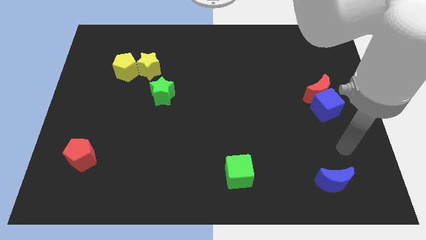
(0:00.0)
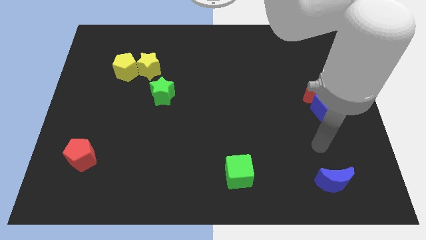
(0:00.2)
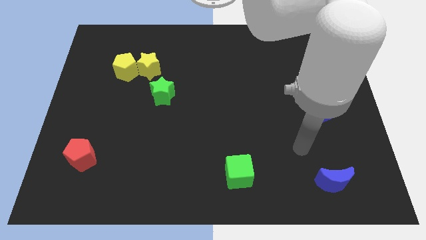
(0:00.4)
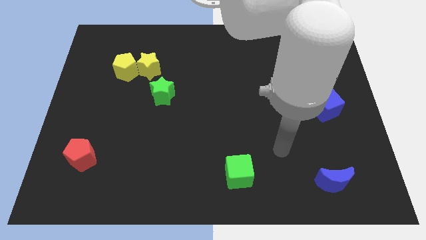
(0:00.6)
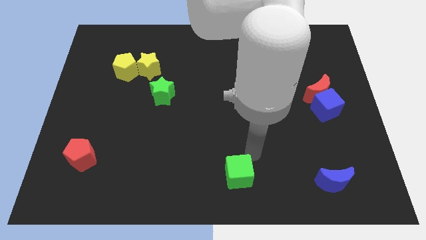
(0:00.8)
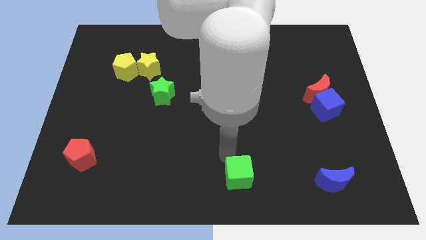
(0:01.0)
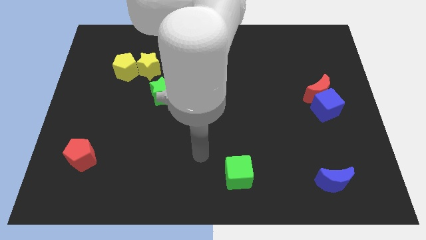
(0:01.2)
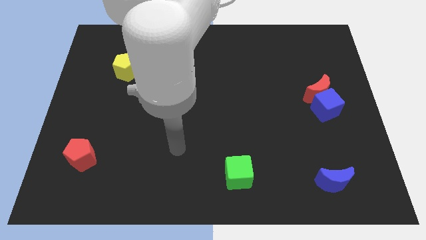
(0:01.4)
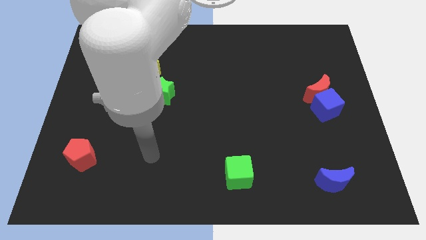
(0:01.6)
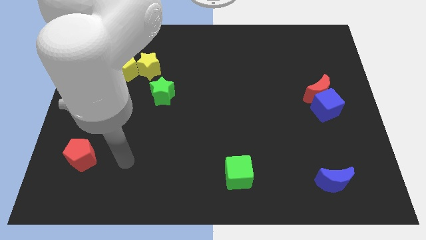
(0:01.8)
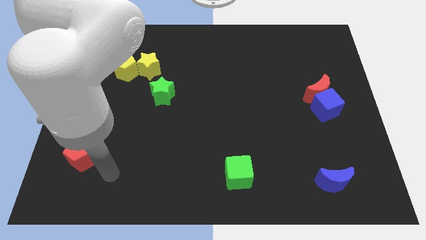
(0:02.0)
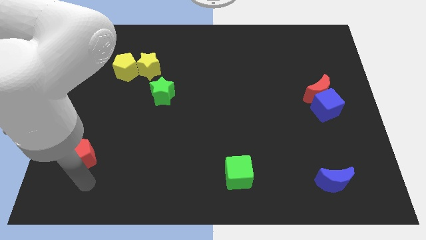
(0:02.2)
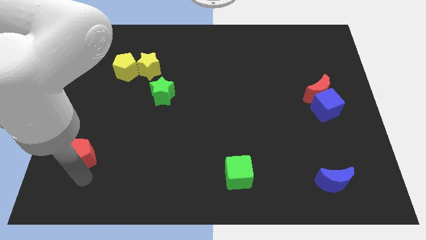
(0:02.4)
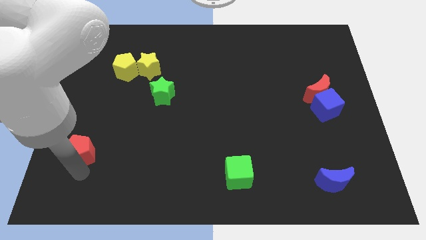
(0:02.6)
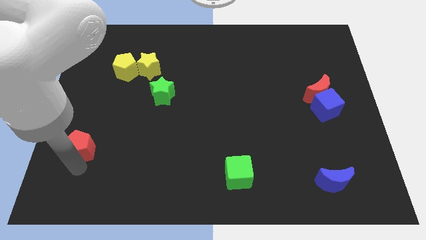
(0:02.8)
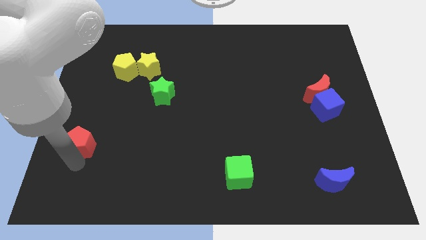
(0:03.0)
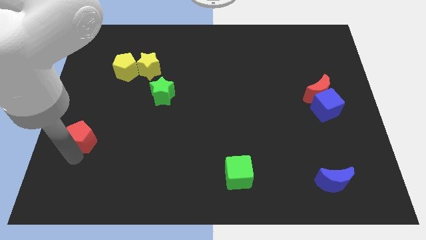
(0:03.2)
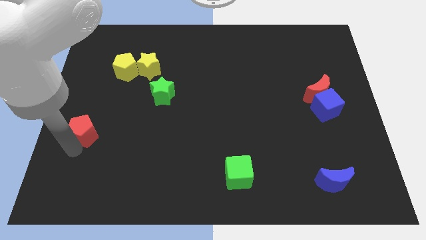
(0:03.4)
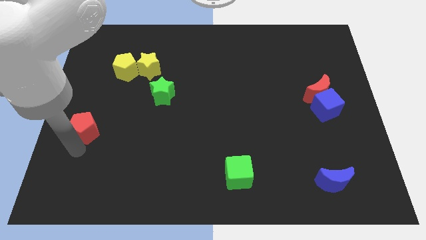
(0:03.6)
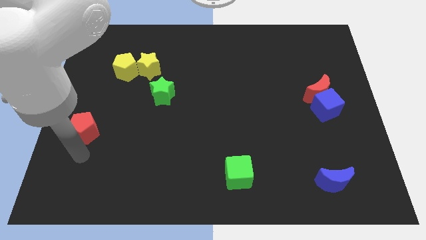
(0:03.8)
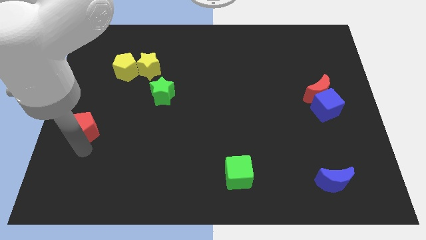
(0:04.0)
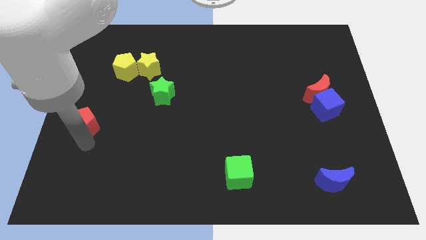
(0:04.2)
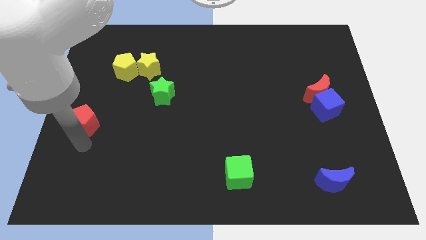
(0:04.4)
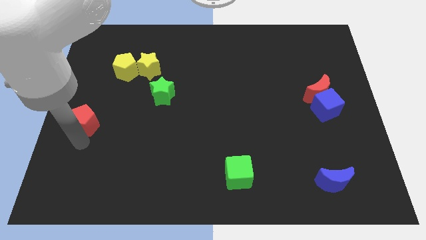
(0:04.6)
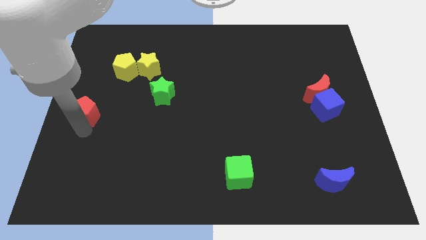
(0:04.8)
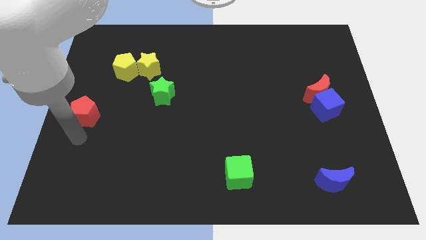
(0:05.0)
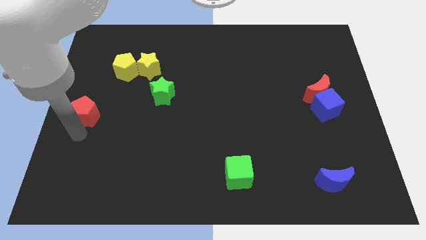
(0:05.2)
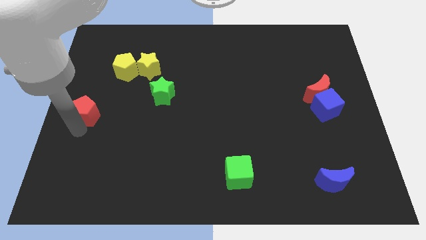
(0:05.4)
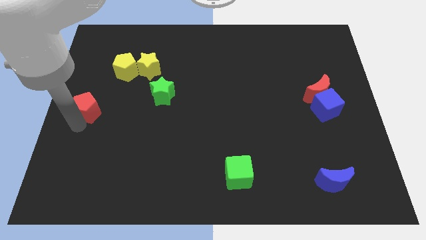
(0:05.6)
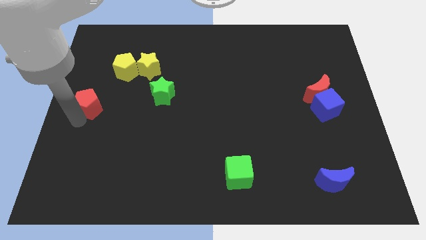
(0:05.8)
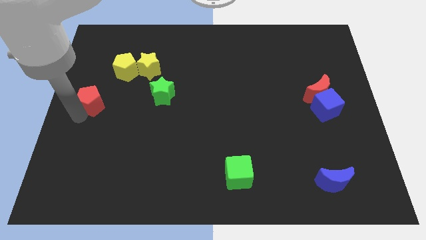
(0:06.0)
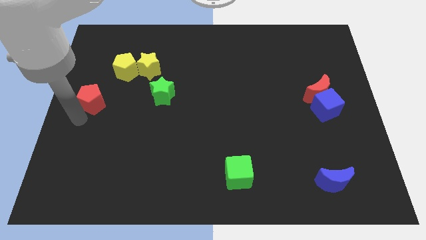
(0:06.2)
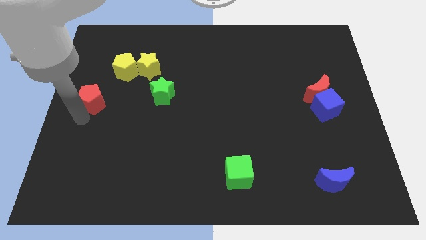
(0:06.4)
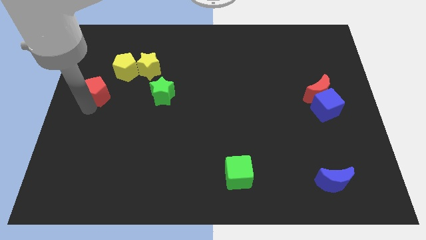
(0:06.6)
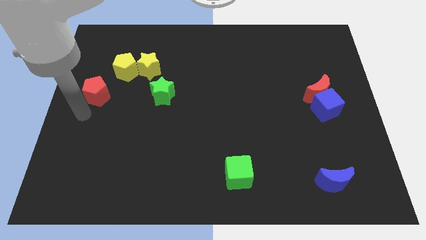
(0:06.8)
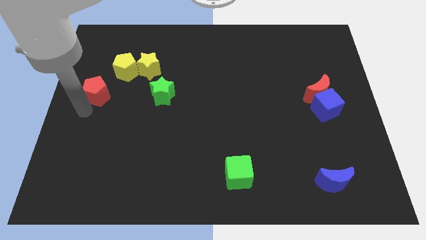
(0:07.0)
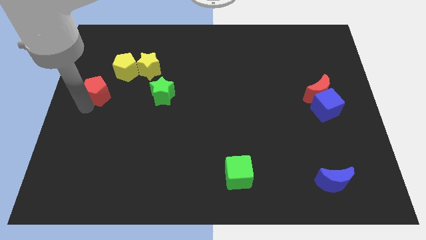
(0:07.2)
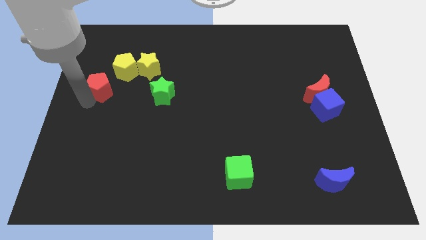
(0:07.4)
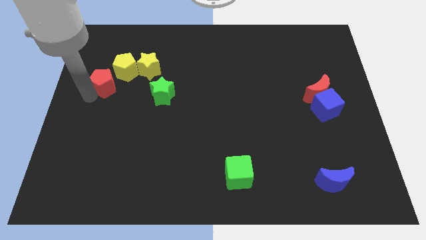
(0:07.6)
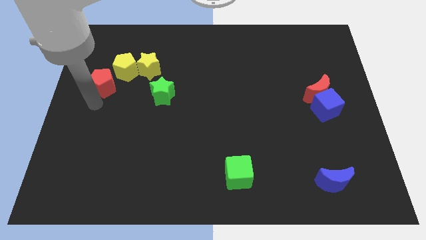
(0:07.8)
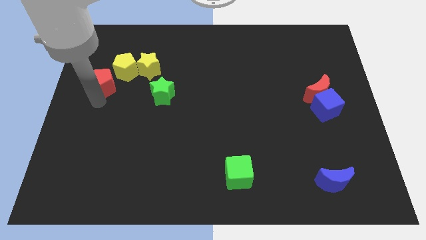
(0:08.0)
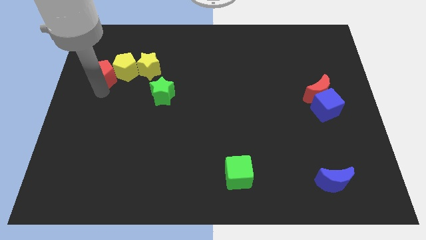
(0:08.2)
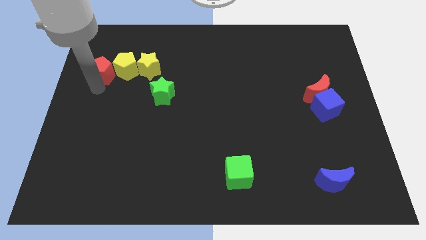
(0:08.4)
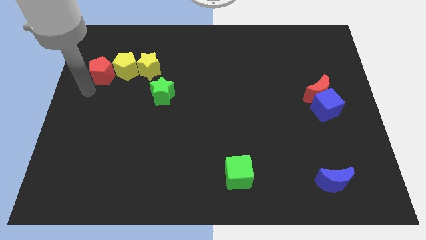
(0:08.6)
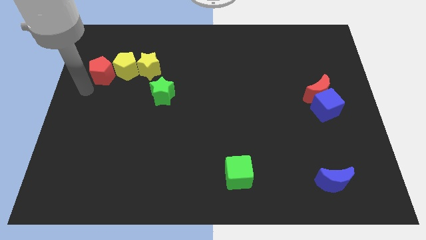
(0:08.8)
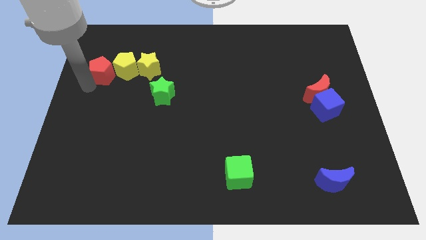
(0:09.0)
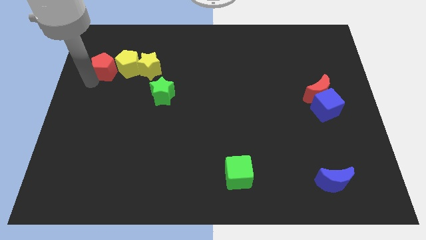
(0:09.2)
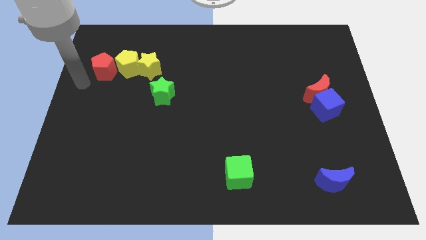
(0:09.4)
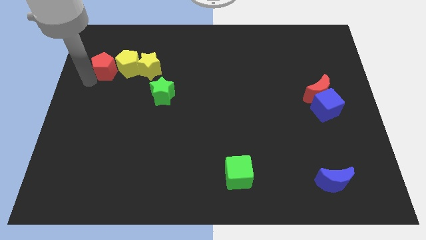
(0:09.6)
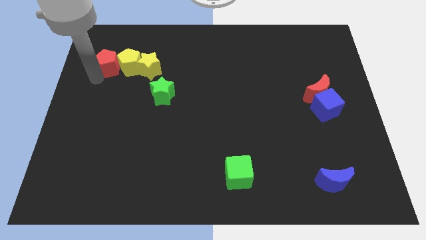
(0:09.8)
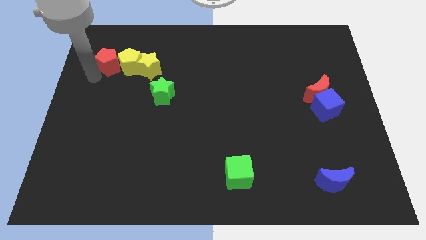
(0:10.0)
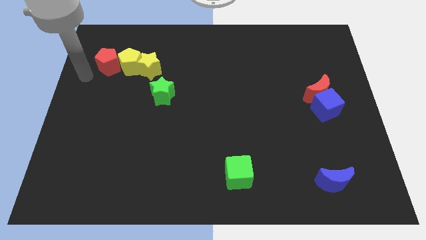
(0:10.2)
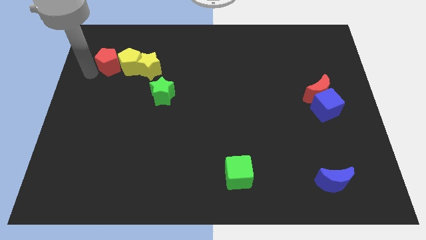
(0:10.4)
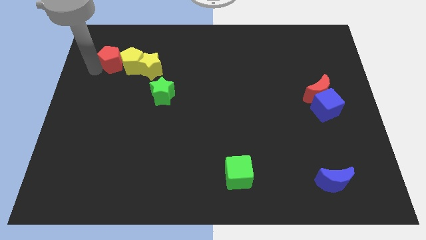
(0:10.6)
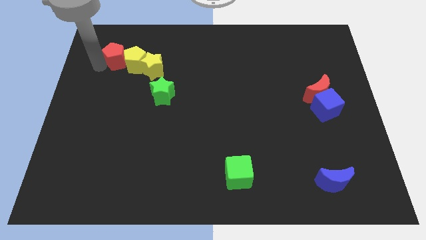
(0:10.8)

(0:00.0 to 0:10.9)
push the red pentagon to the top left side of the yellow star

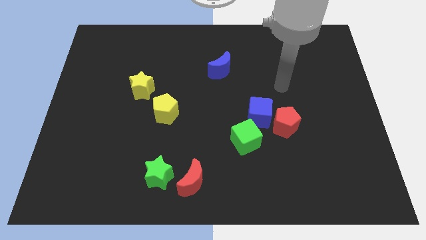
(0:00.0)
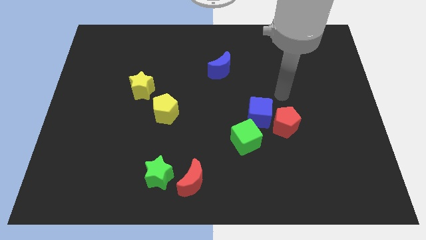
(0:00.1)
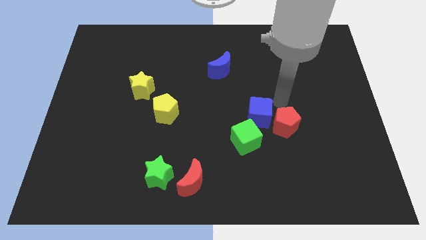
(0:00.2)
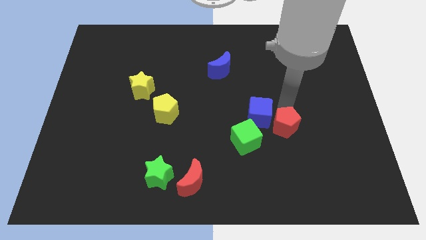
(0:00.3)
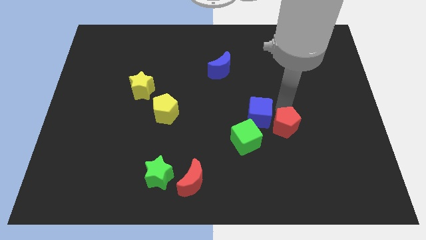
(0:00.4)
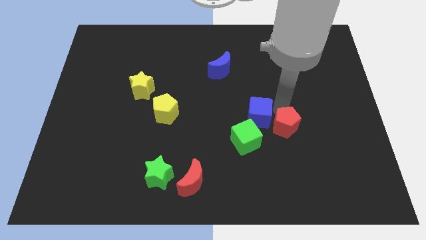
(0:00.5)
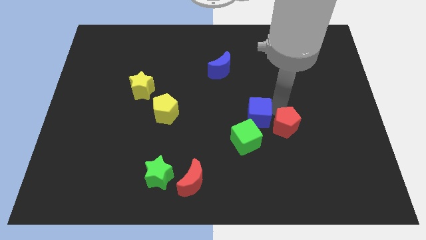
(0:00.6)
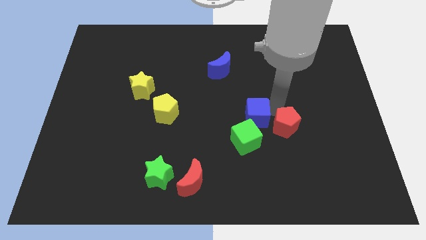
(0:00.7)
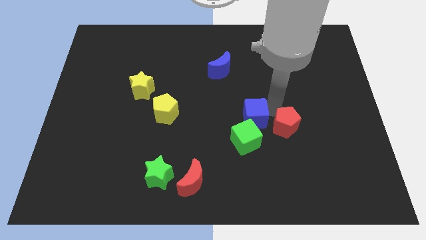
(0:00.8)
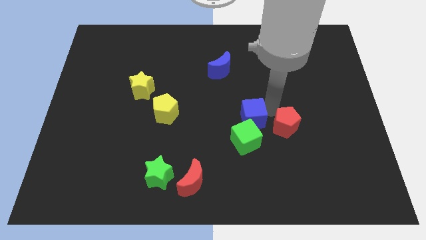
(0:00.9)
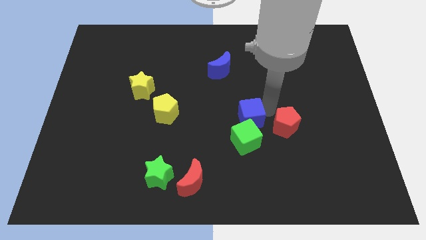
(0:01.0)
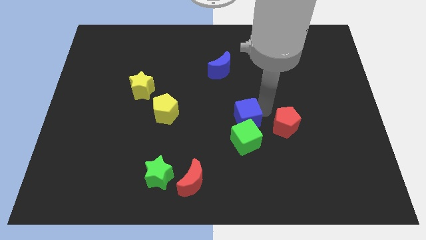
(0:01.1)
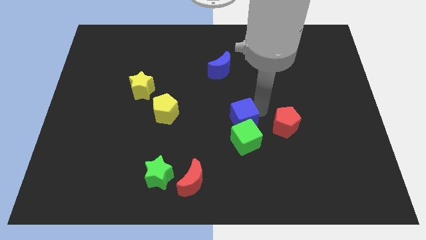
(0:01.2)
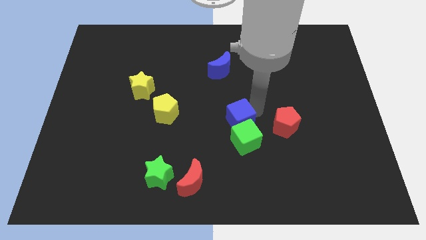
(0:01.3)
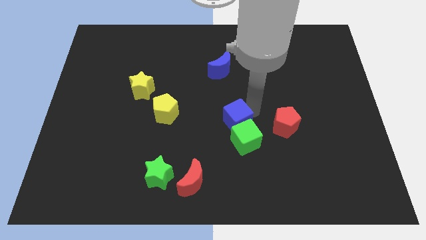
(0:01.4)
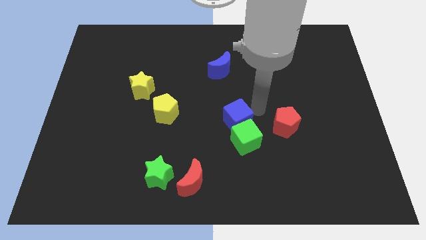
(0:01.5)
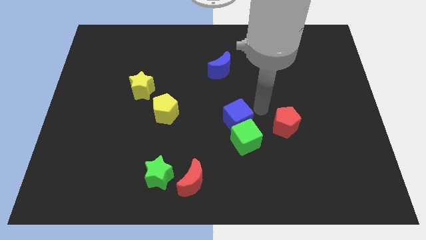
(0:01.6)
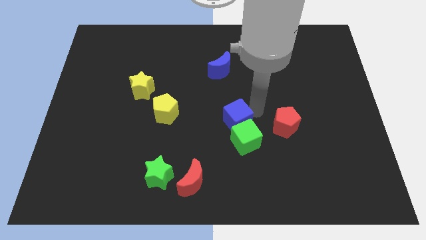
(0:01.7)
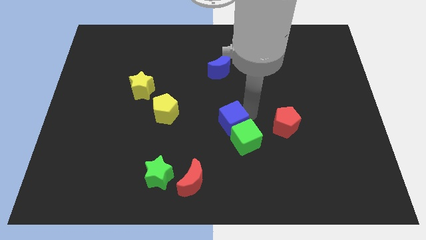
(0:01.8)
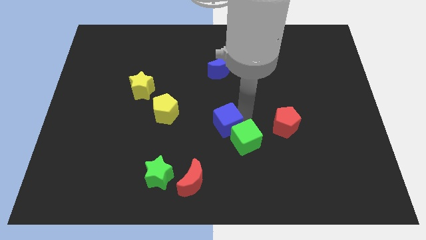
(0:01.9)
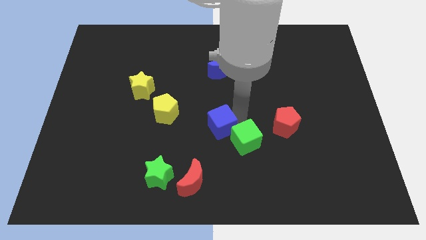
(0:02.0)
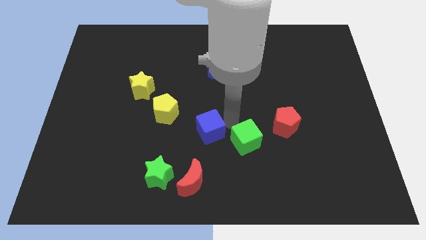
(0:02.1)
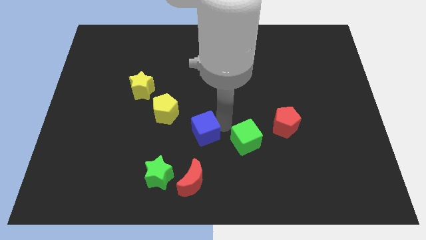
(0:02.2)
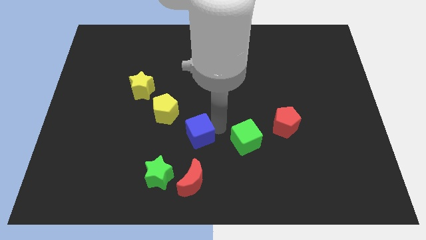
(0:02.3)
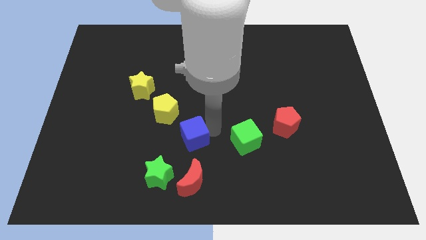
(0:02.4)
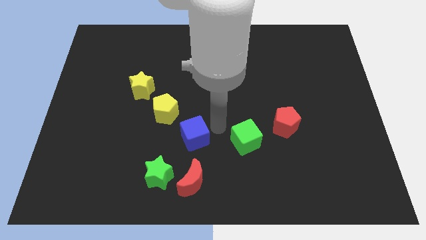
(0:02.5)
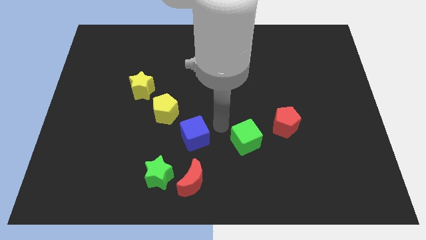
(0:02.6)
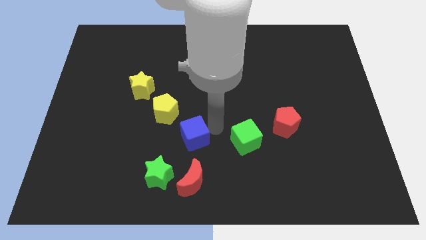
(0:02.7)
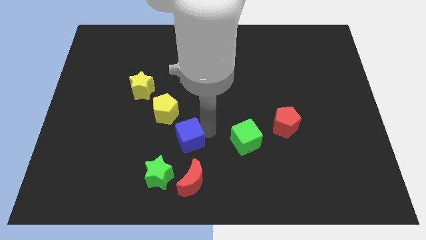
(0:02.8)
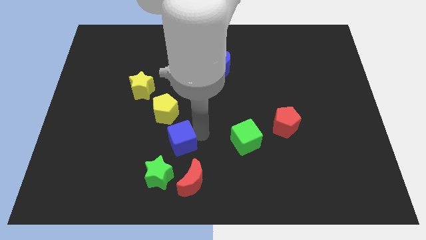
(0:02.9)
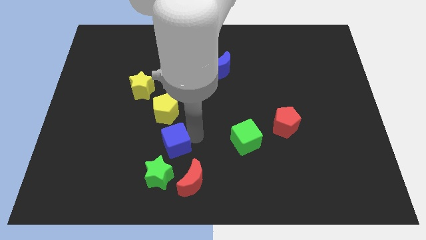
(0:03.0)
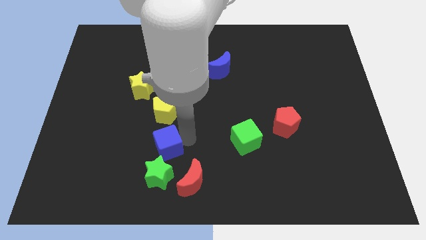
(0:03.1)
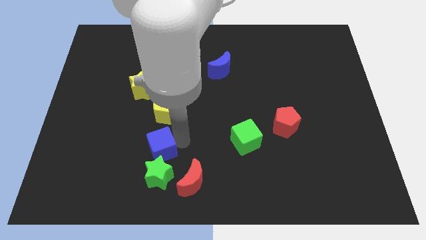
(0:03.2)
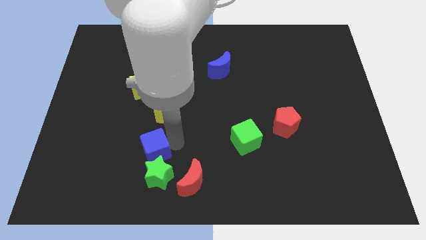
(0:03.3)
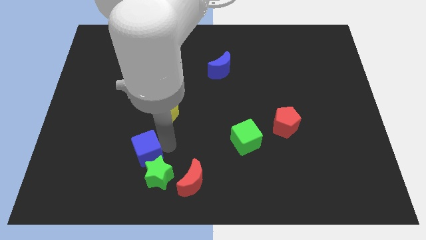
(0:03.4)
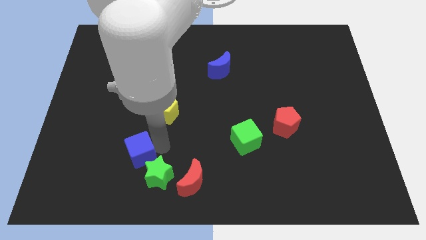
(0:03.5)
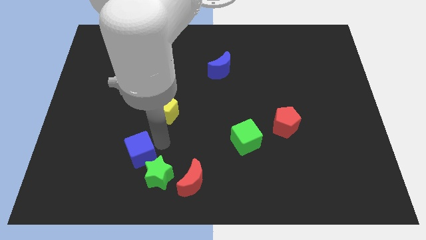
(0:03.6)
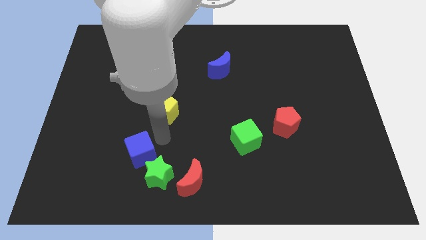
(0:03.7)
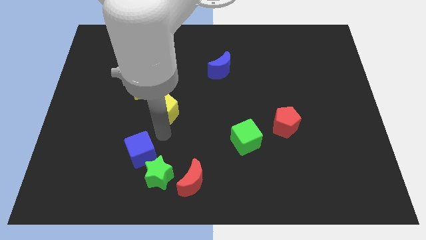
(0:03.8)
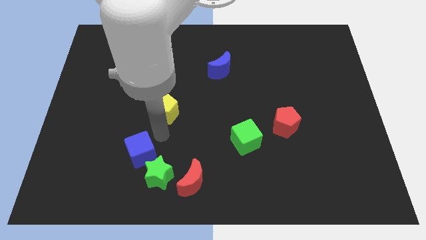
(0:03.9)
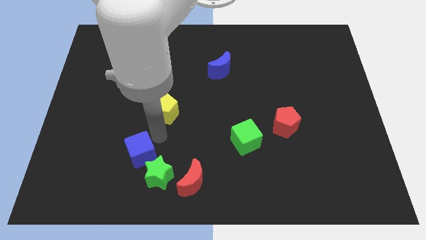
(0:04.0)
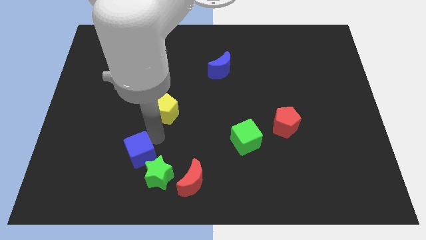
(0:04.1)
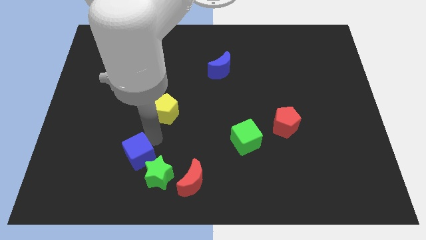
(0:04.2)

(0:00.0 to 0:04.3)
slide the blue cube to the left side of the green star
